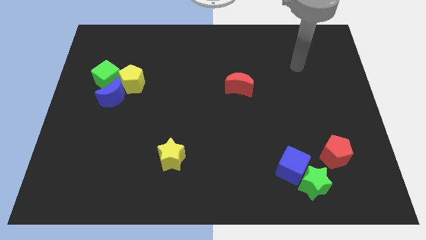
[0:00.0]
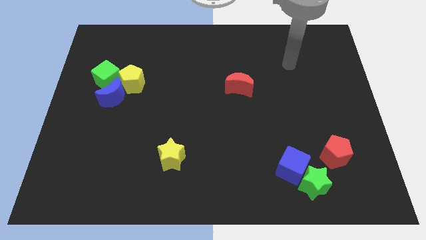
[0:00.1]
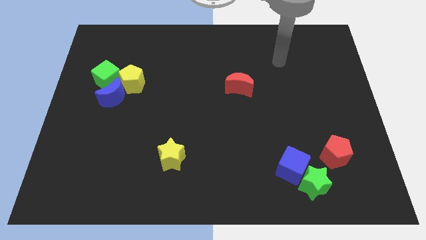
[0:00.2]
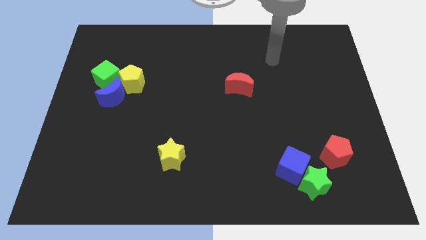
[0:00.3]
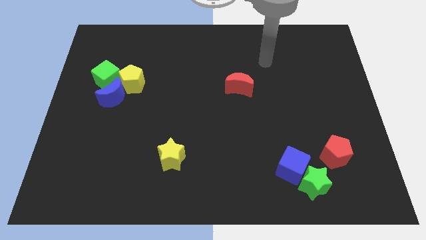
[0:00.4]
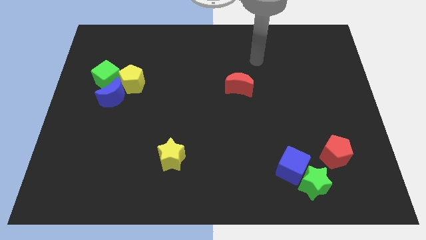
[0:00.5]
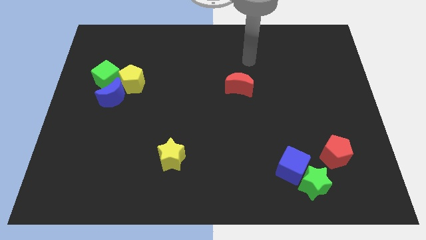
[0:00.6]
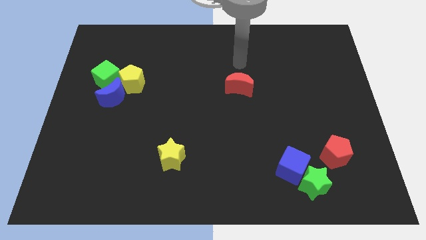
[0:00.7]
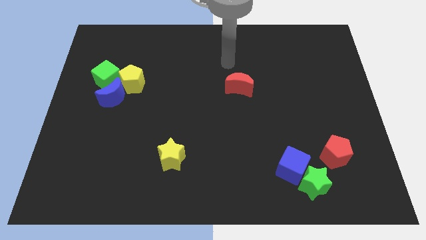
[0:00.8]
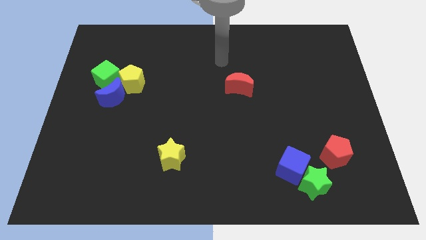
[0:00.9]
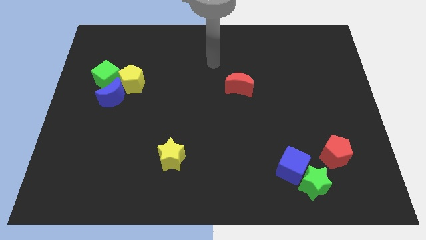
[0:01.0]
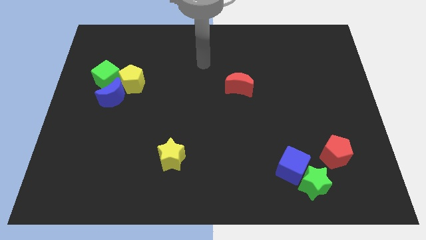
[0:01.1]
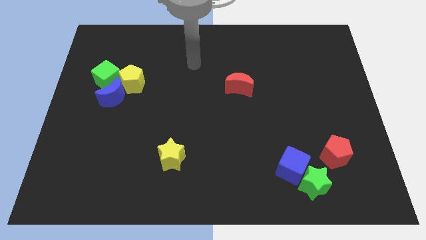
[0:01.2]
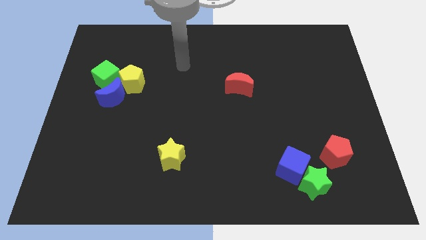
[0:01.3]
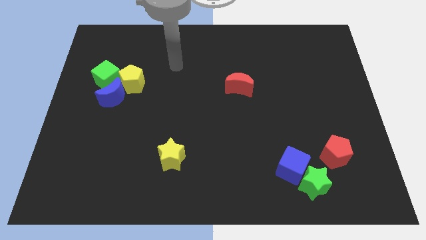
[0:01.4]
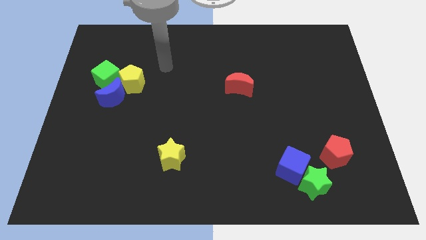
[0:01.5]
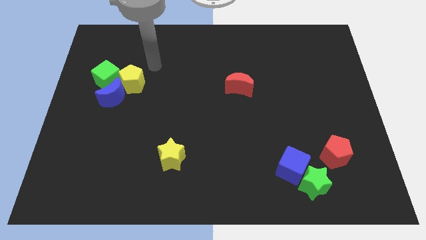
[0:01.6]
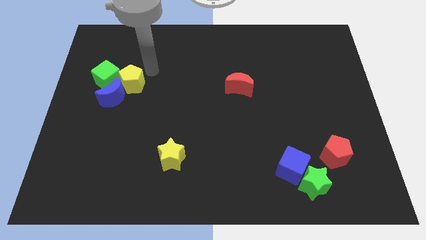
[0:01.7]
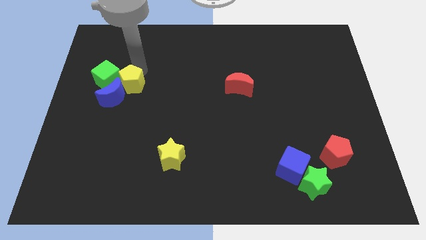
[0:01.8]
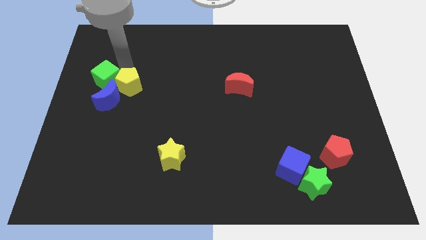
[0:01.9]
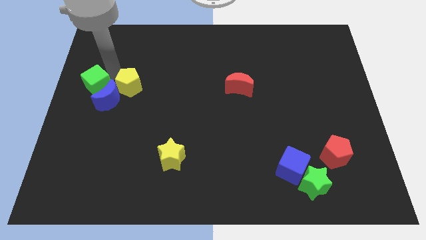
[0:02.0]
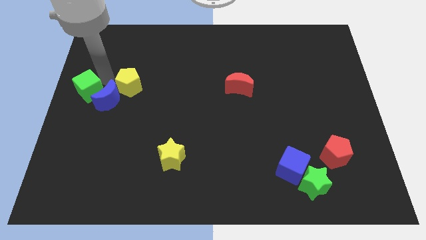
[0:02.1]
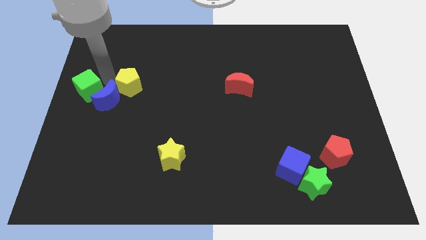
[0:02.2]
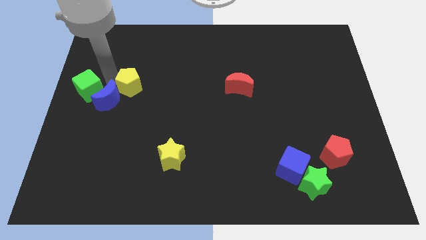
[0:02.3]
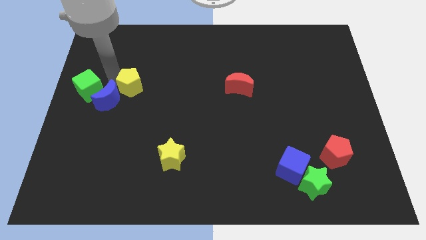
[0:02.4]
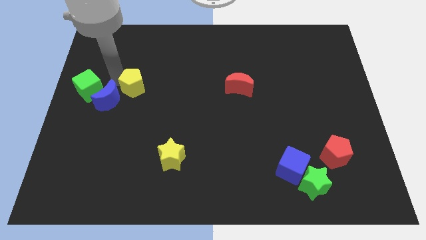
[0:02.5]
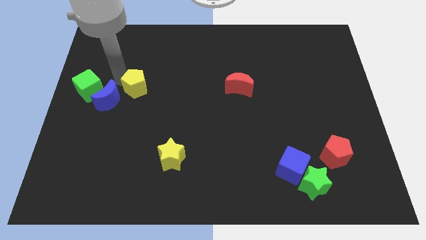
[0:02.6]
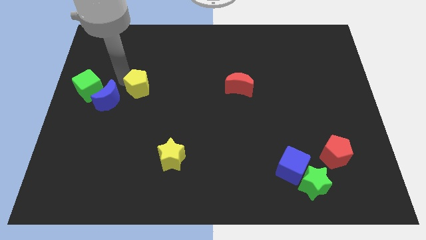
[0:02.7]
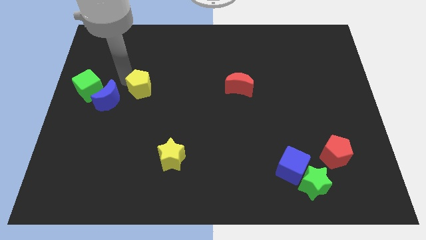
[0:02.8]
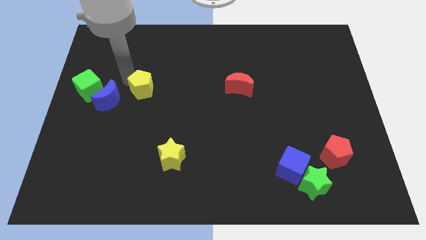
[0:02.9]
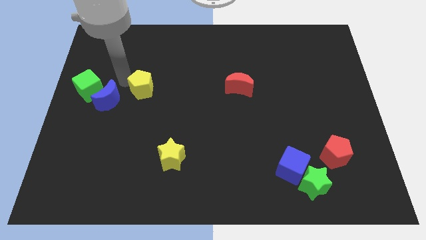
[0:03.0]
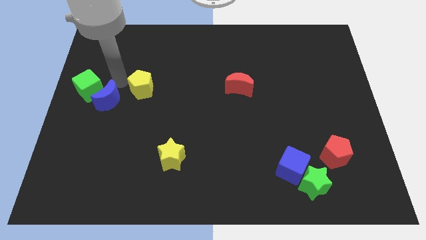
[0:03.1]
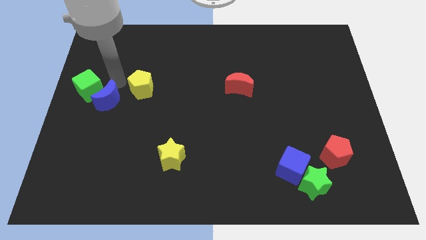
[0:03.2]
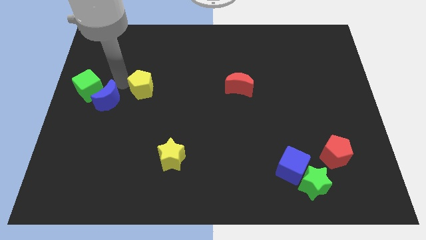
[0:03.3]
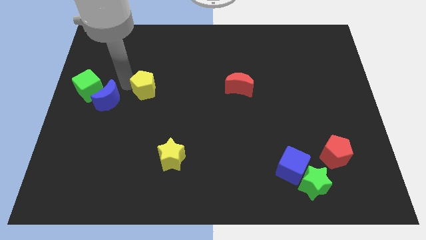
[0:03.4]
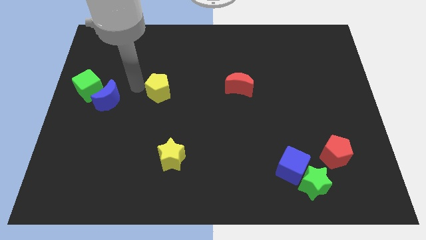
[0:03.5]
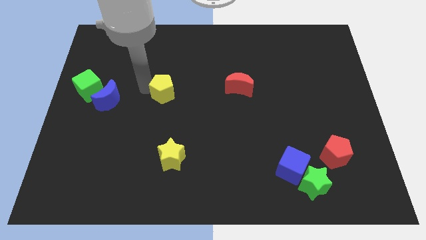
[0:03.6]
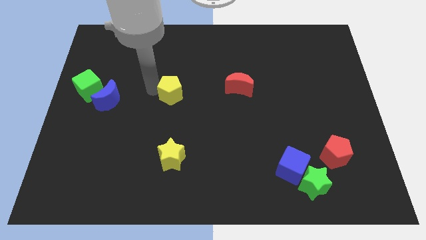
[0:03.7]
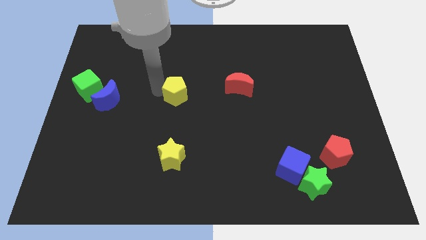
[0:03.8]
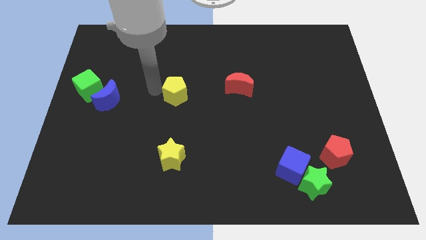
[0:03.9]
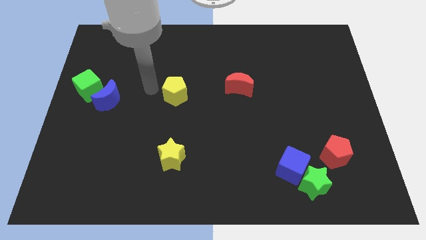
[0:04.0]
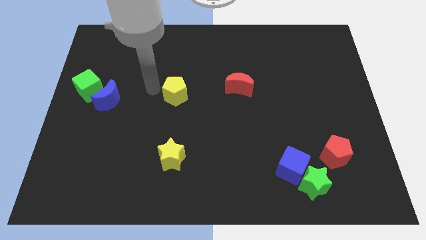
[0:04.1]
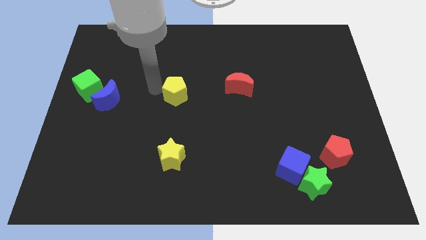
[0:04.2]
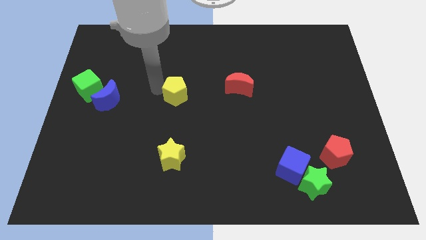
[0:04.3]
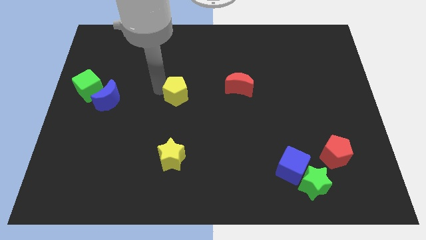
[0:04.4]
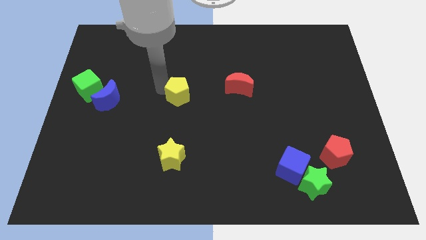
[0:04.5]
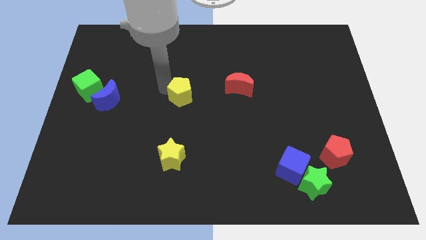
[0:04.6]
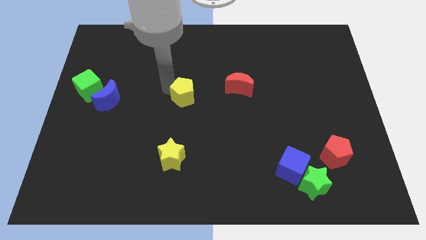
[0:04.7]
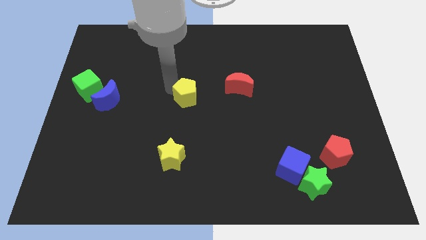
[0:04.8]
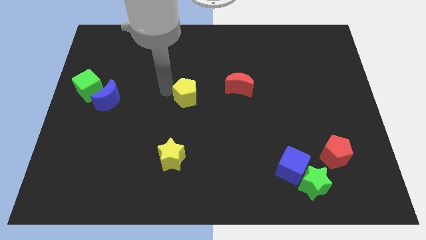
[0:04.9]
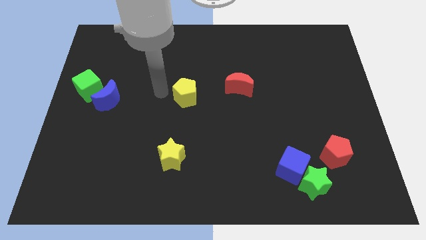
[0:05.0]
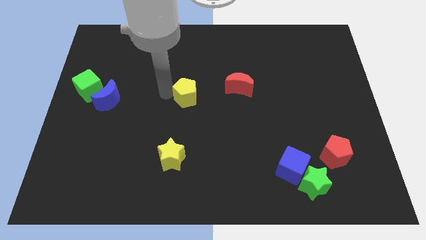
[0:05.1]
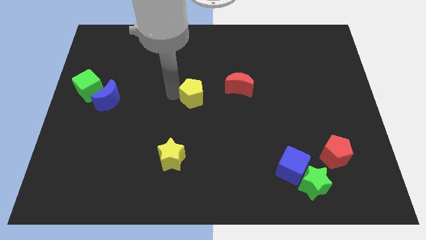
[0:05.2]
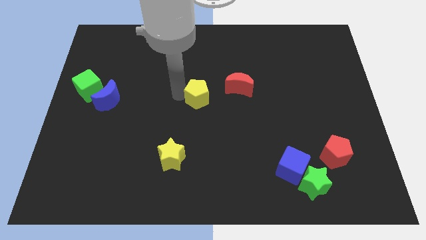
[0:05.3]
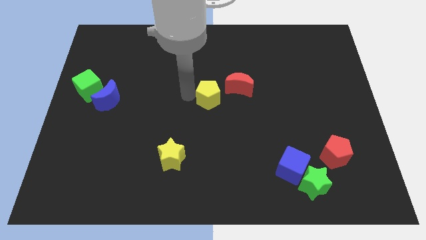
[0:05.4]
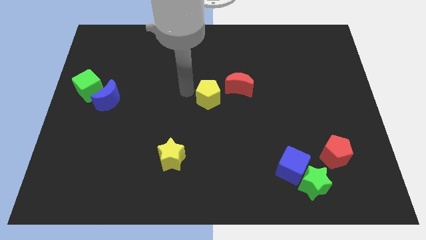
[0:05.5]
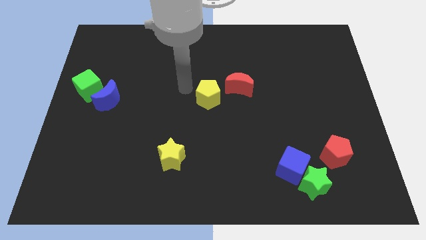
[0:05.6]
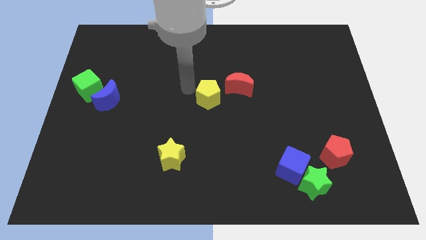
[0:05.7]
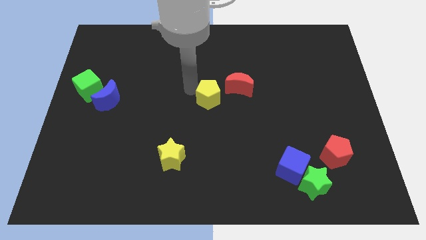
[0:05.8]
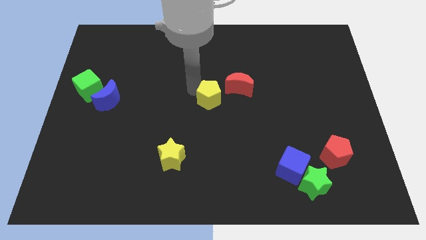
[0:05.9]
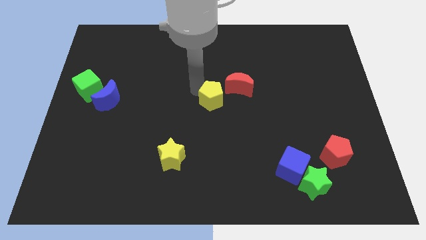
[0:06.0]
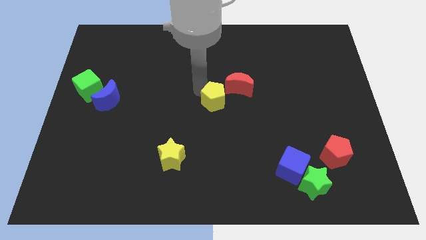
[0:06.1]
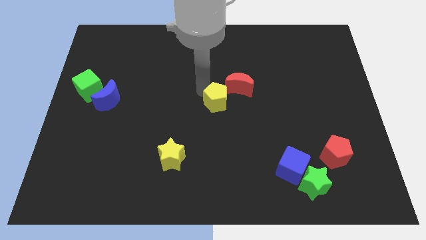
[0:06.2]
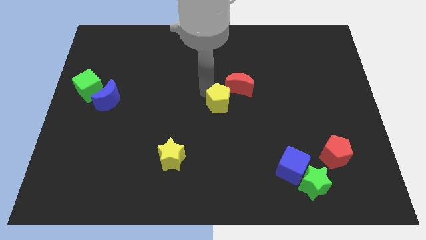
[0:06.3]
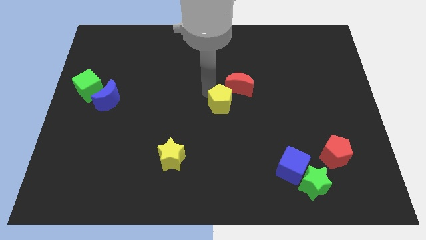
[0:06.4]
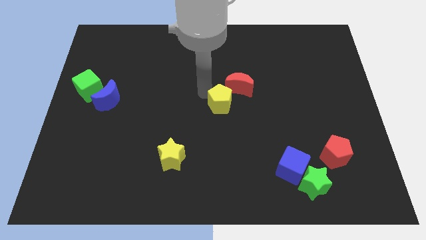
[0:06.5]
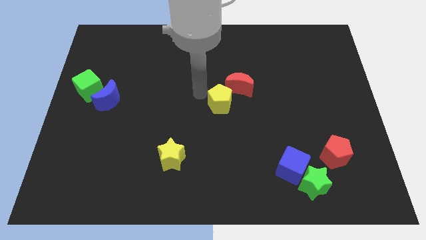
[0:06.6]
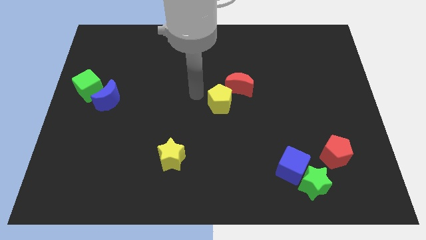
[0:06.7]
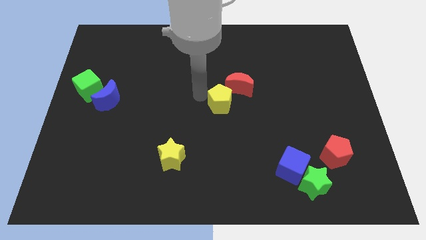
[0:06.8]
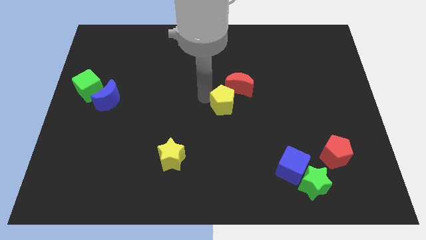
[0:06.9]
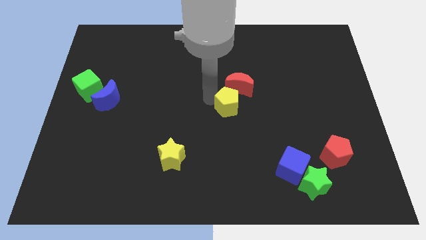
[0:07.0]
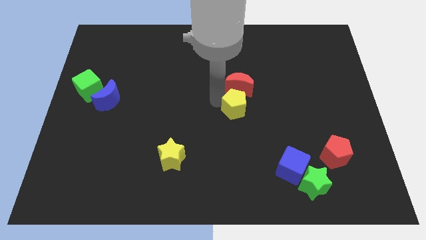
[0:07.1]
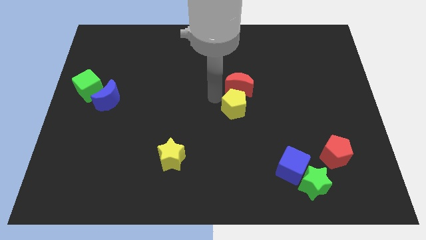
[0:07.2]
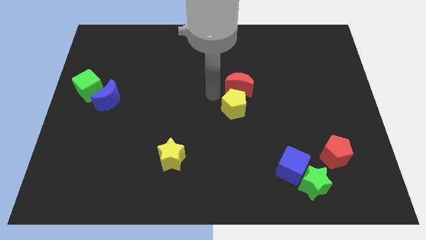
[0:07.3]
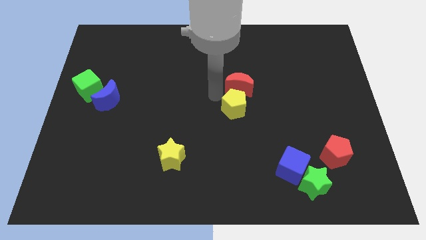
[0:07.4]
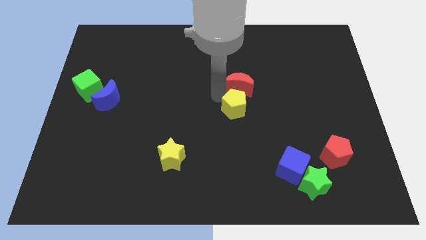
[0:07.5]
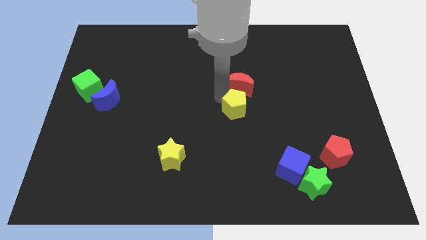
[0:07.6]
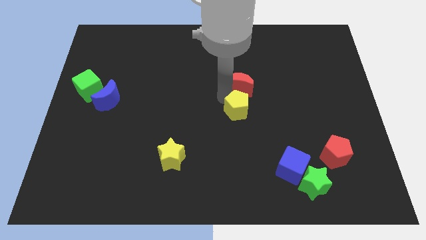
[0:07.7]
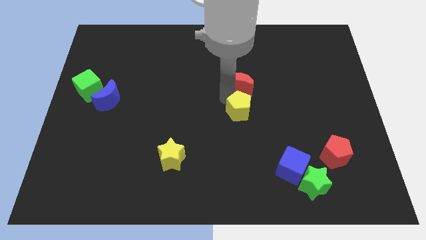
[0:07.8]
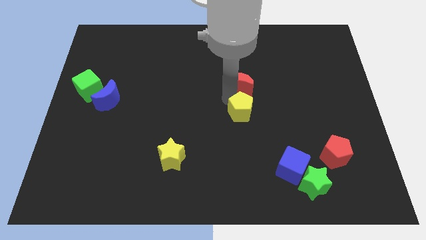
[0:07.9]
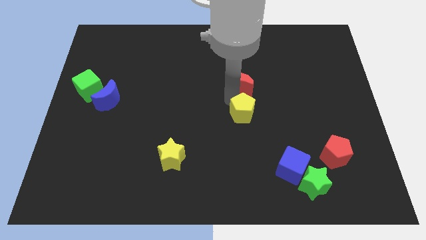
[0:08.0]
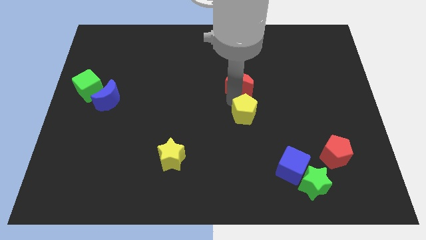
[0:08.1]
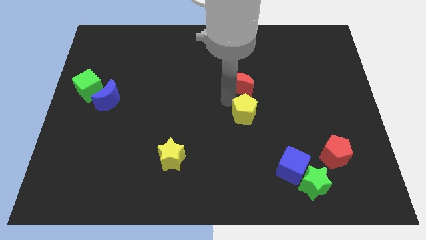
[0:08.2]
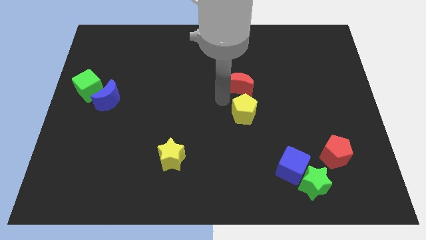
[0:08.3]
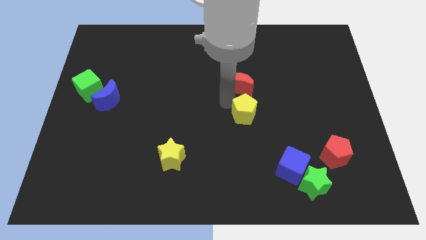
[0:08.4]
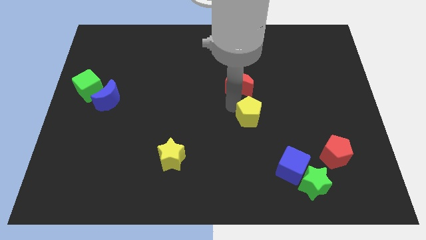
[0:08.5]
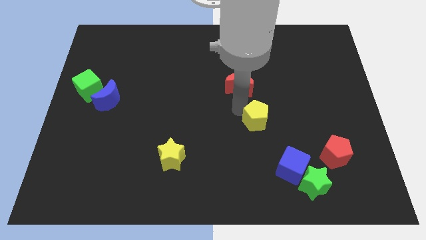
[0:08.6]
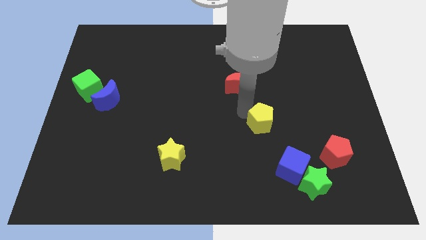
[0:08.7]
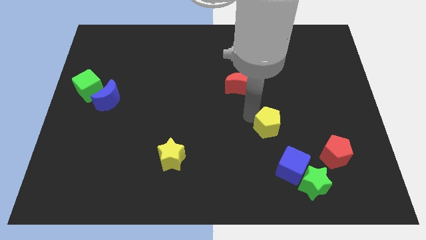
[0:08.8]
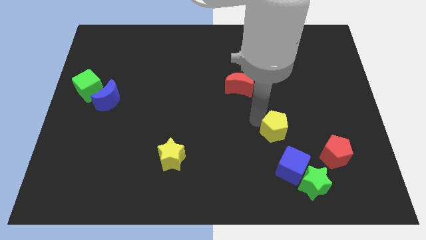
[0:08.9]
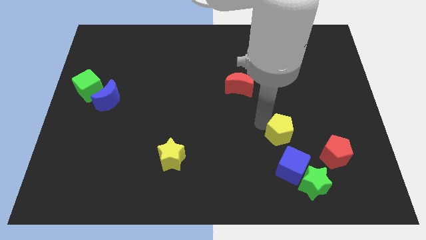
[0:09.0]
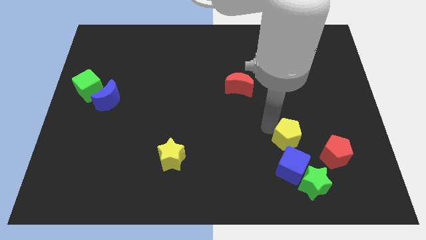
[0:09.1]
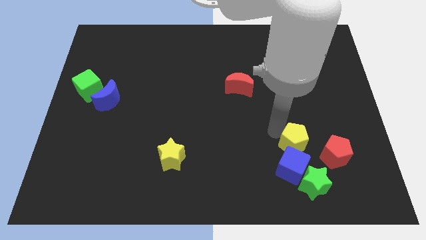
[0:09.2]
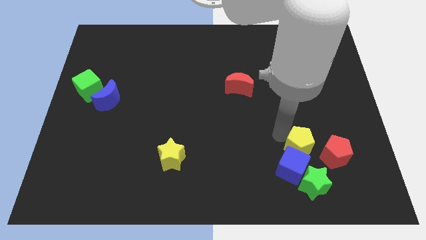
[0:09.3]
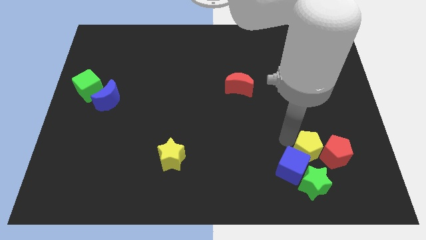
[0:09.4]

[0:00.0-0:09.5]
push the yellow pentagon next to the red pentagon
